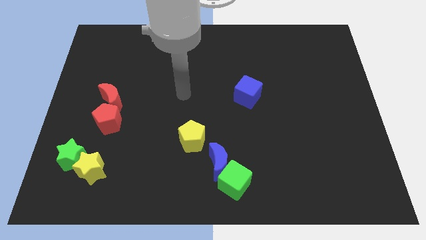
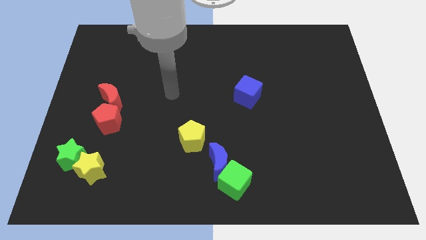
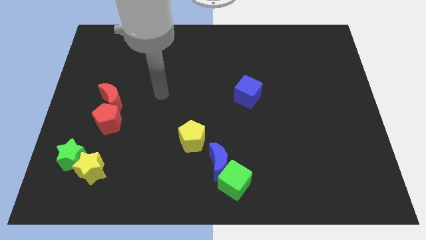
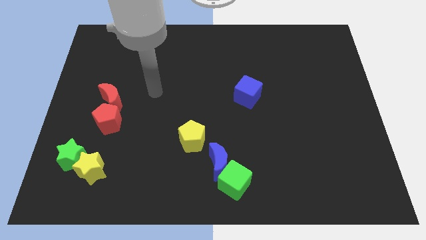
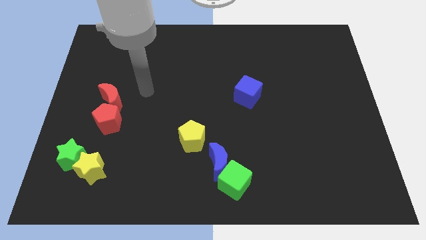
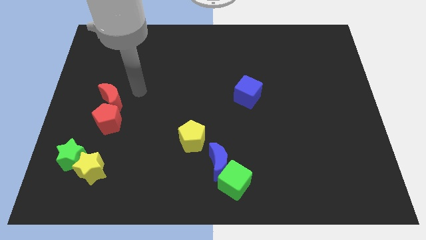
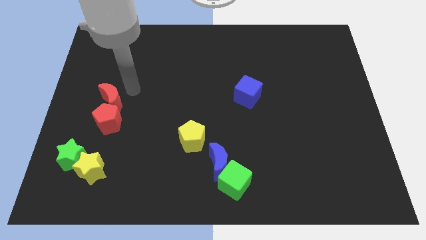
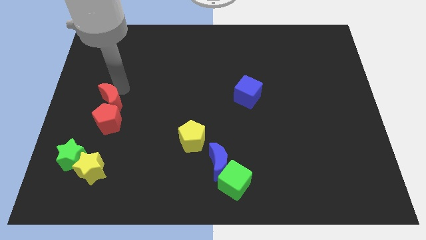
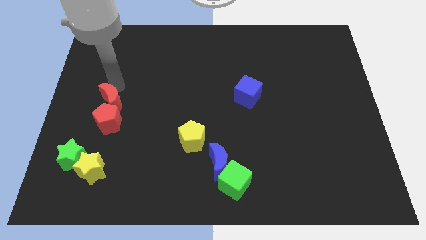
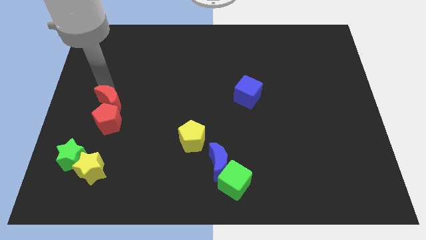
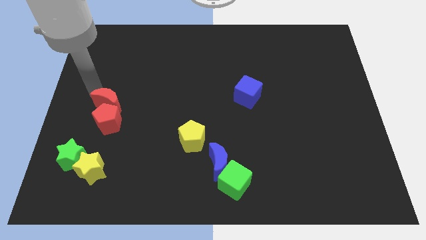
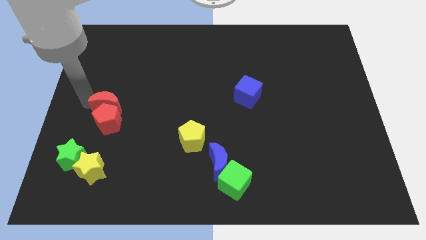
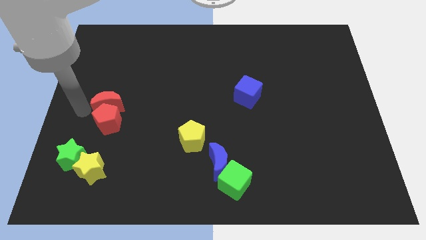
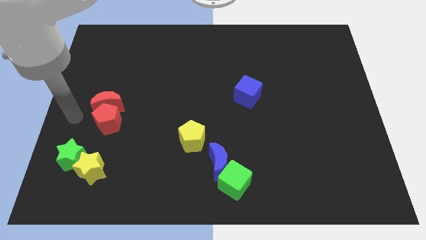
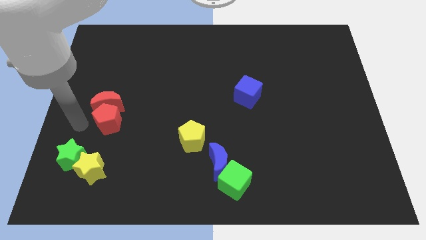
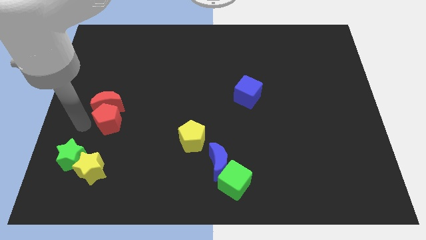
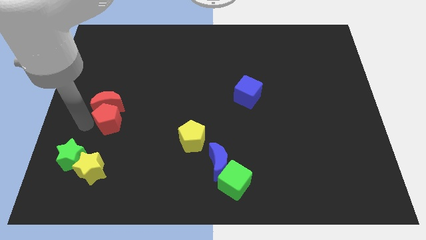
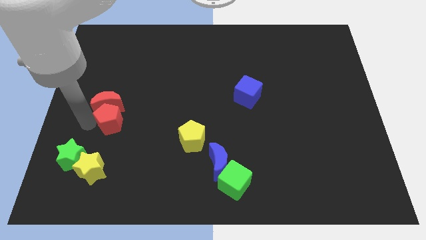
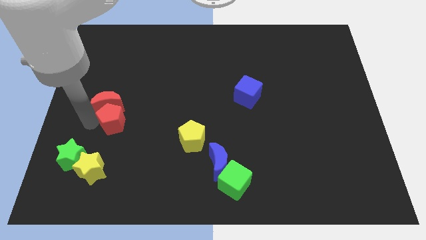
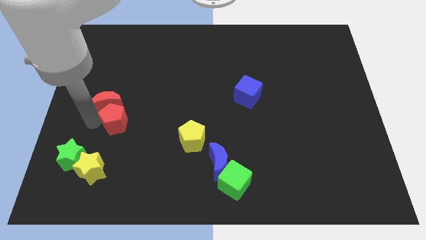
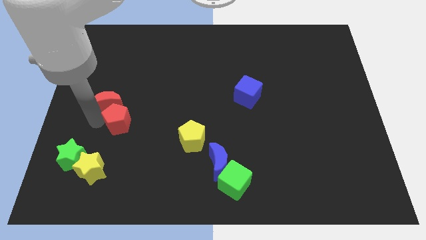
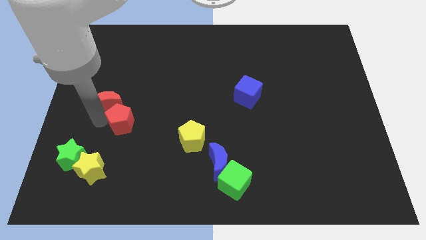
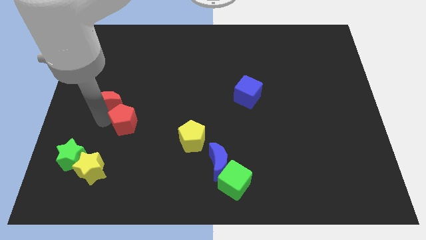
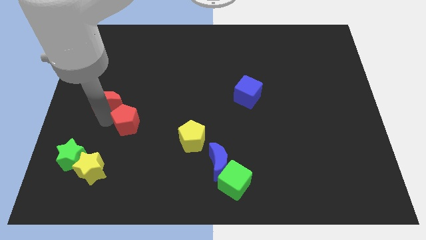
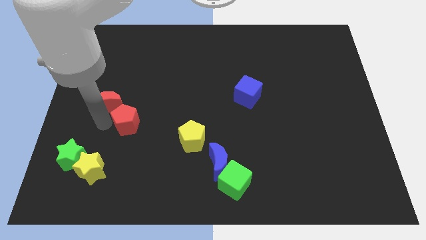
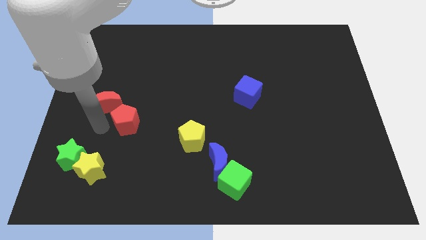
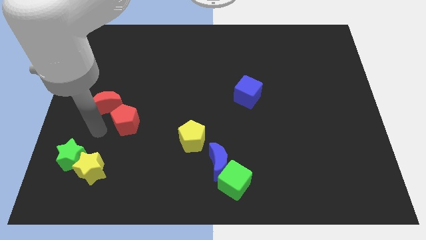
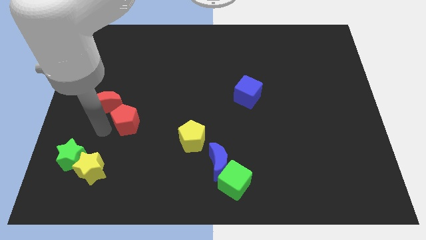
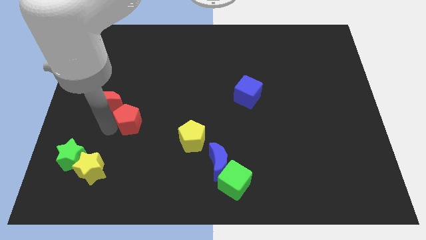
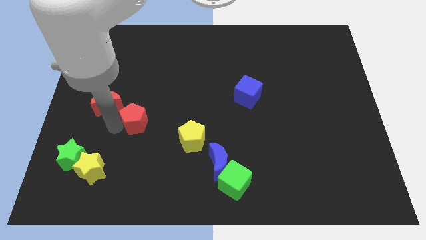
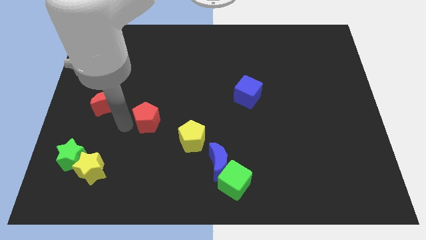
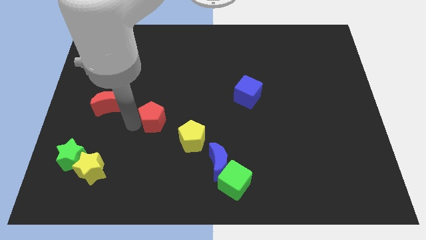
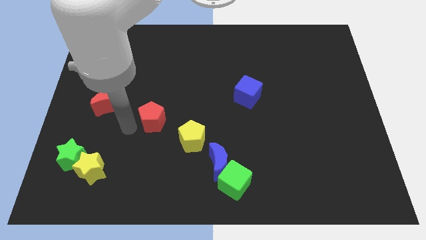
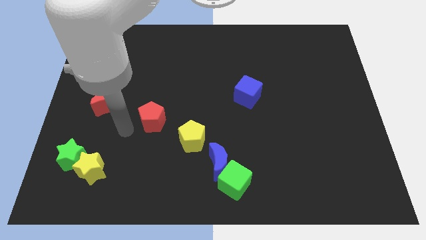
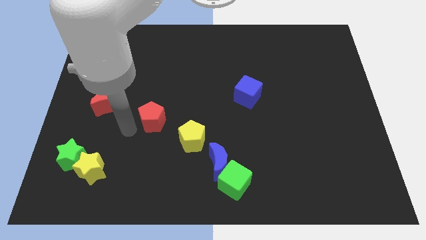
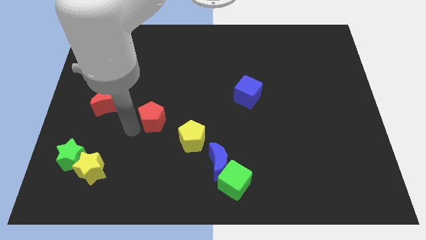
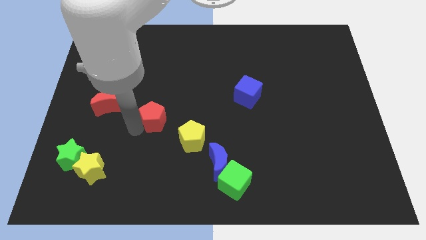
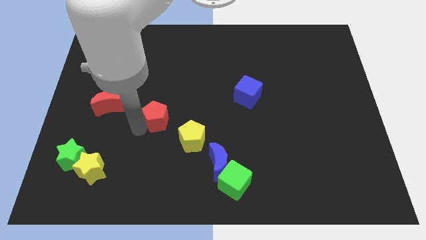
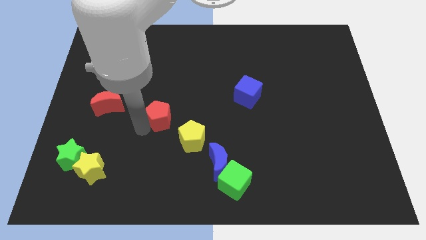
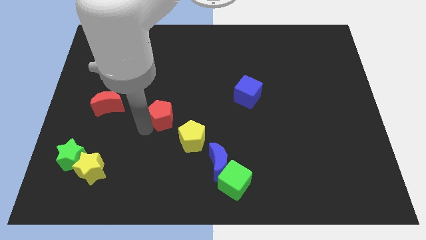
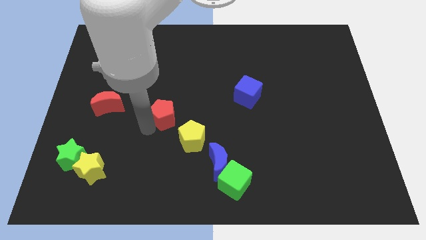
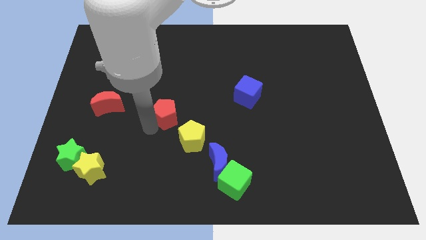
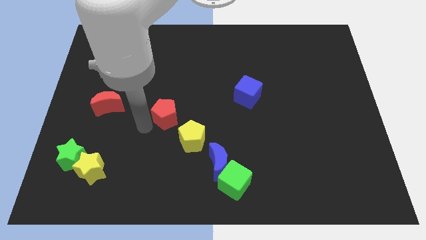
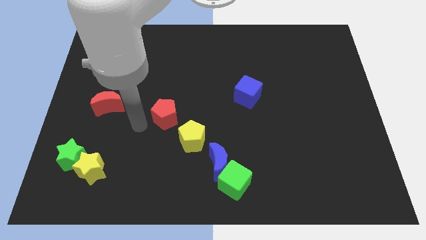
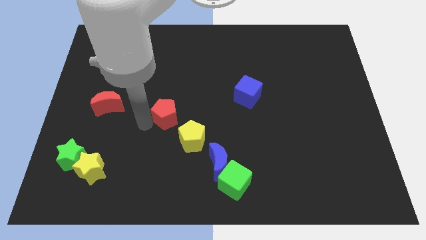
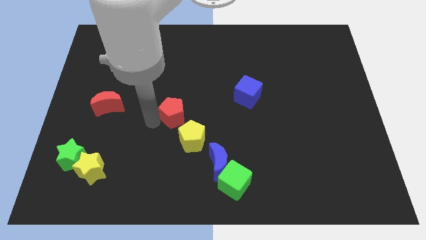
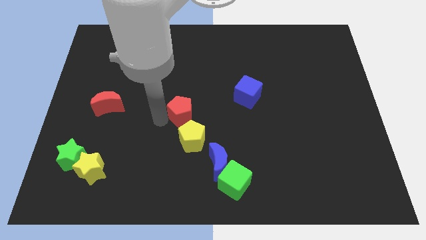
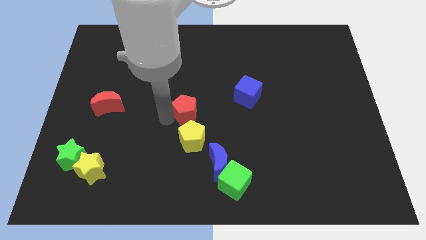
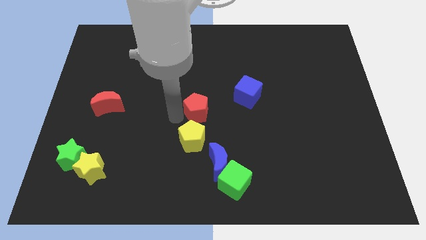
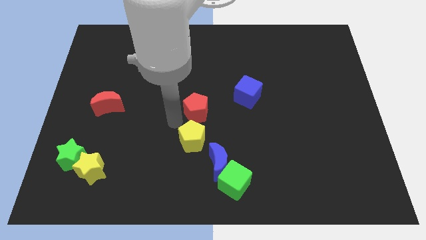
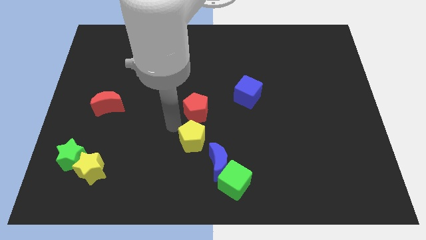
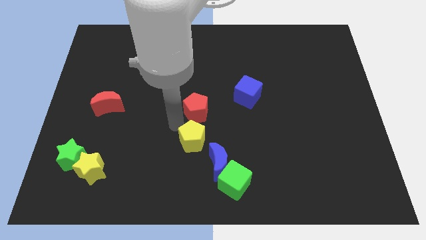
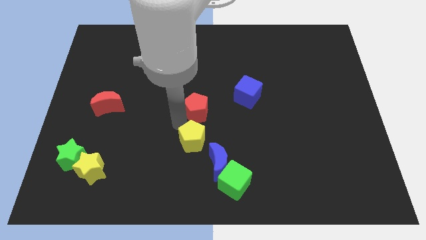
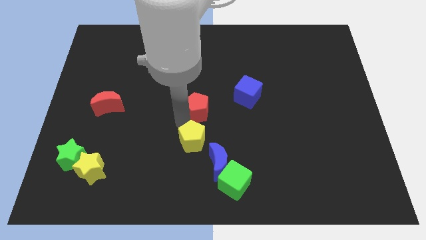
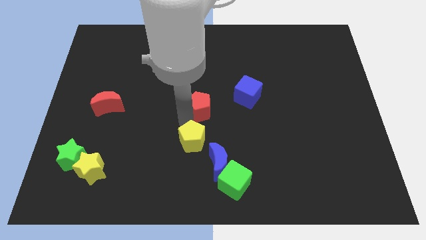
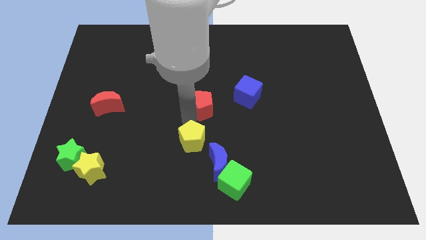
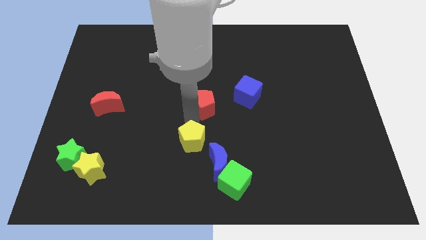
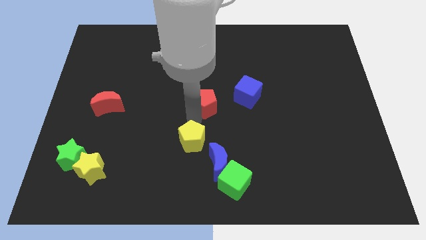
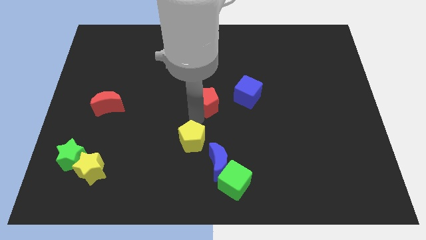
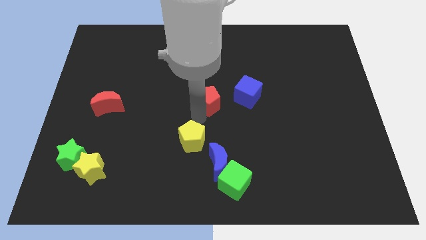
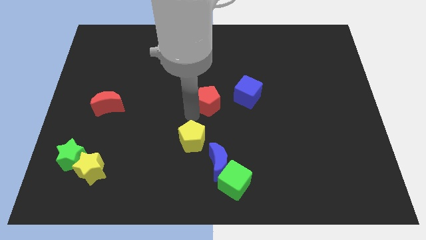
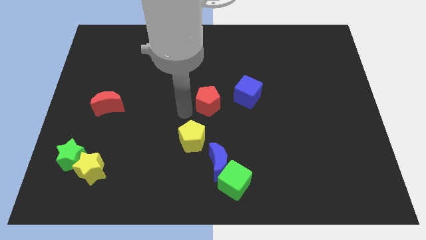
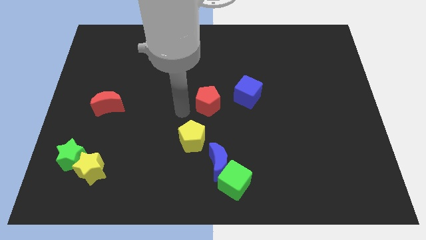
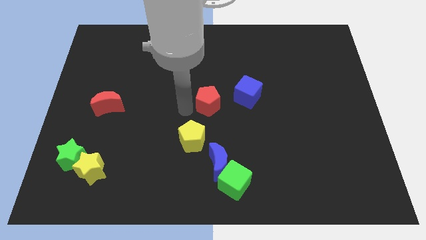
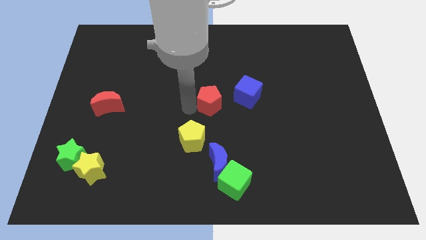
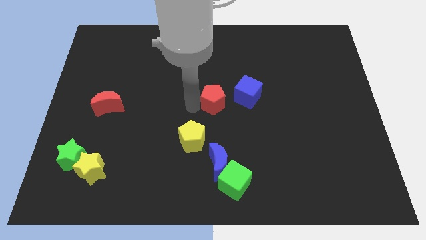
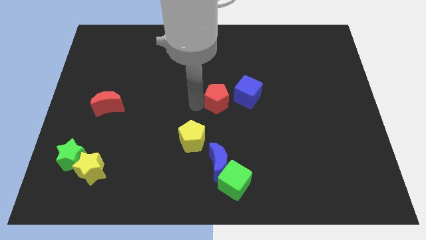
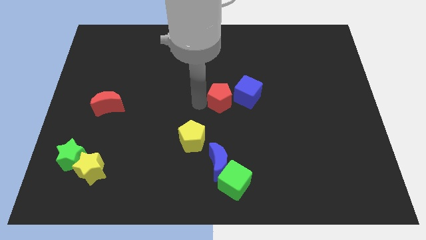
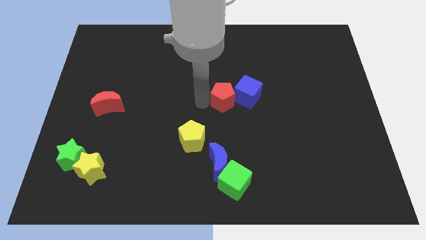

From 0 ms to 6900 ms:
put the red pentagon close to the blue cube
